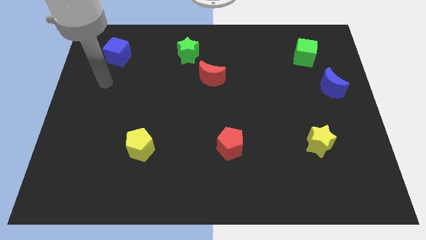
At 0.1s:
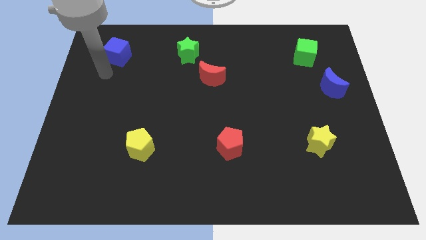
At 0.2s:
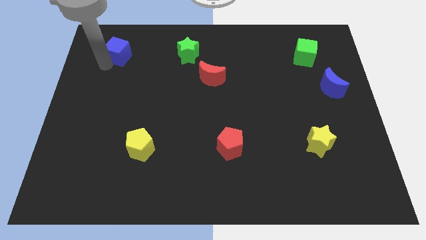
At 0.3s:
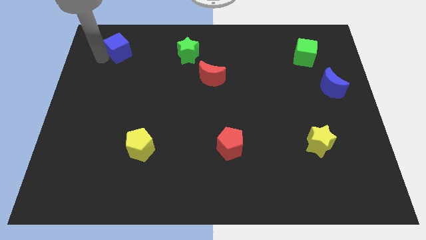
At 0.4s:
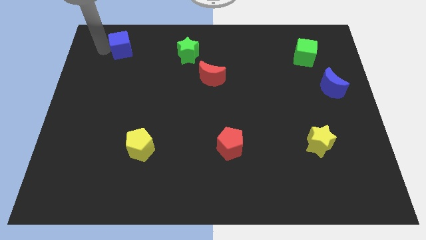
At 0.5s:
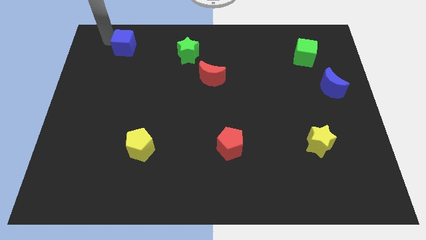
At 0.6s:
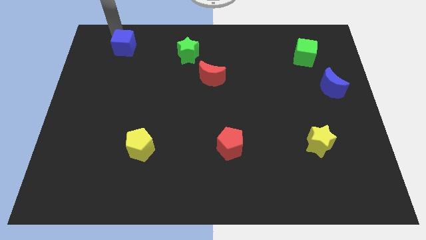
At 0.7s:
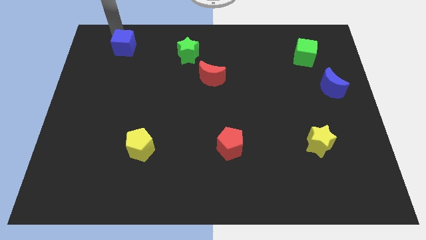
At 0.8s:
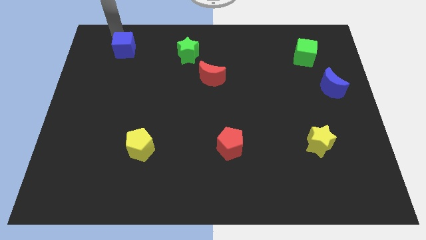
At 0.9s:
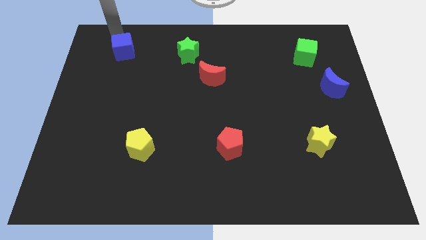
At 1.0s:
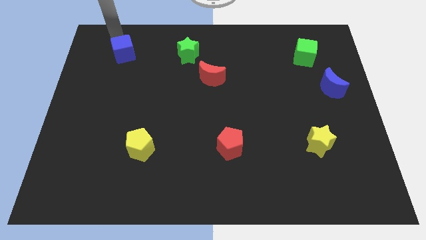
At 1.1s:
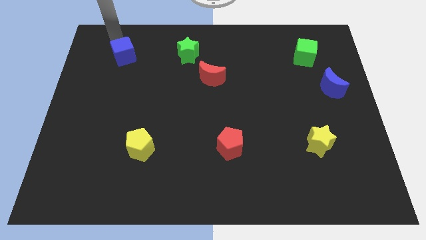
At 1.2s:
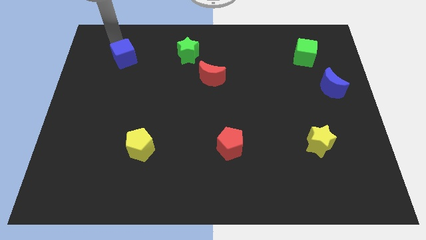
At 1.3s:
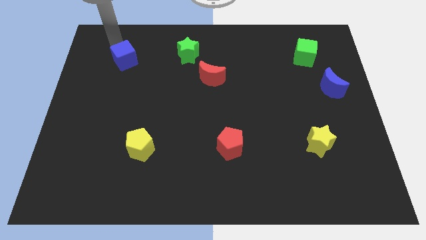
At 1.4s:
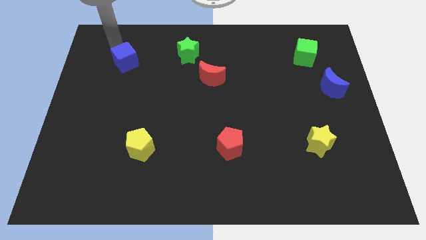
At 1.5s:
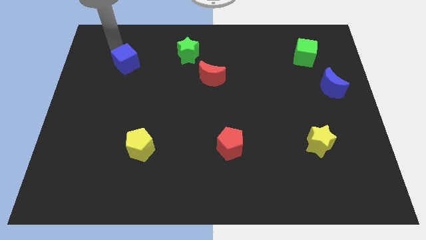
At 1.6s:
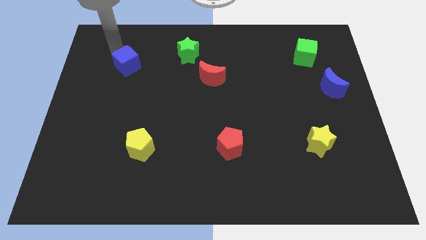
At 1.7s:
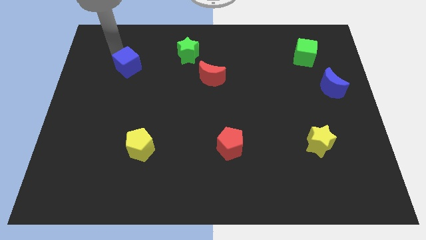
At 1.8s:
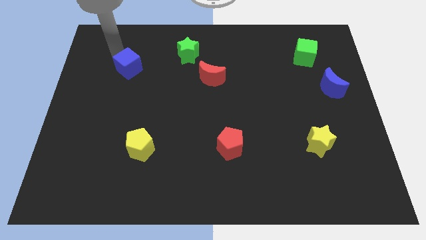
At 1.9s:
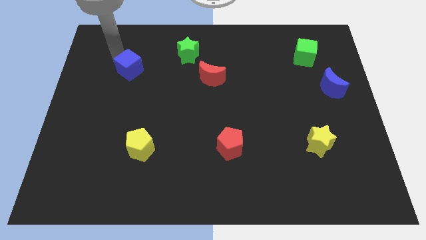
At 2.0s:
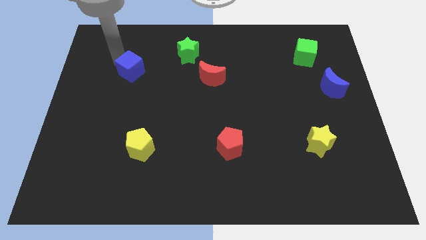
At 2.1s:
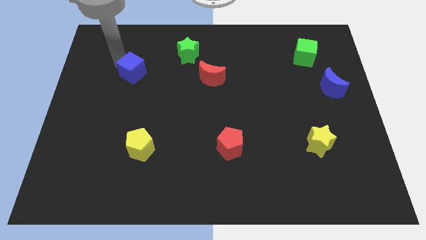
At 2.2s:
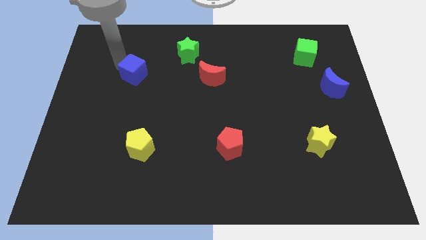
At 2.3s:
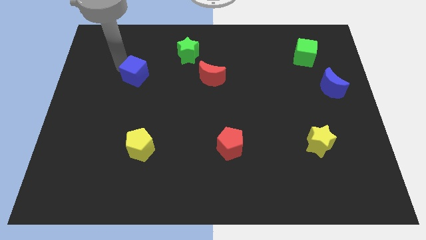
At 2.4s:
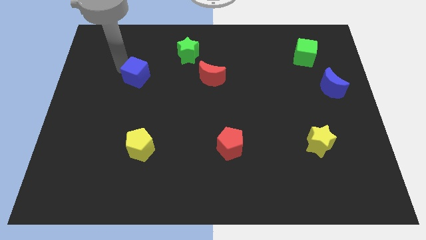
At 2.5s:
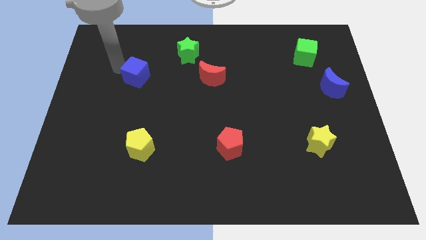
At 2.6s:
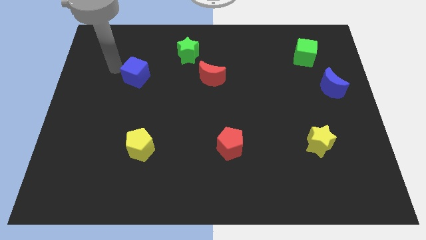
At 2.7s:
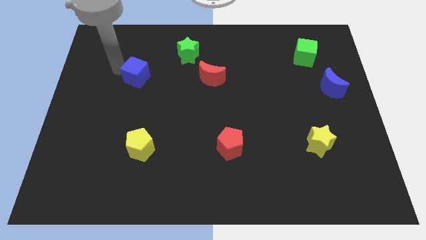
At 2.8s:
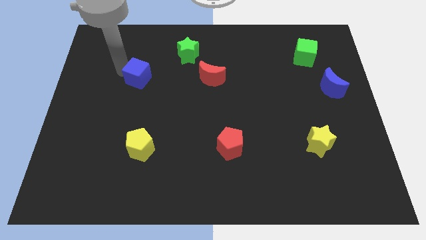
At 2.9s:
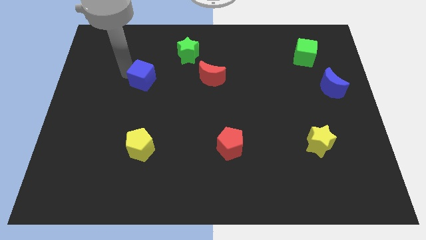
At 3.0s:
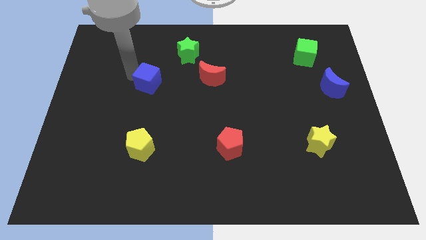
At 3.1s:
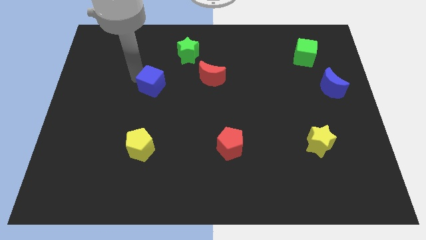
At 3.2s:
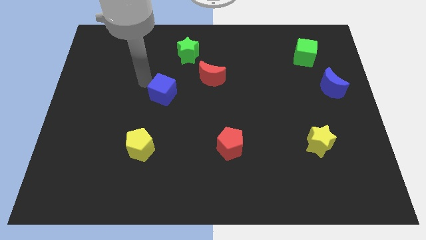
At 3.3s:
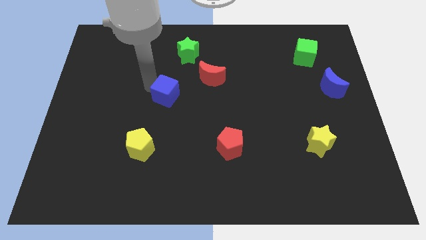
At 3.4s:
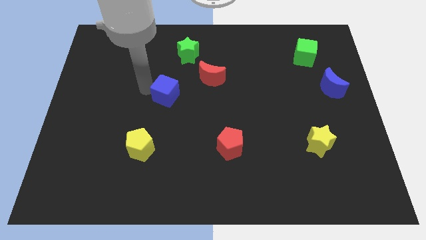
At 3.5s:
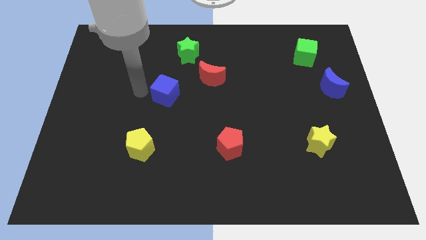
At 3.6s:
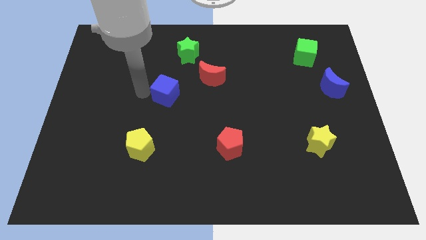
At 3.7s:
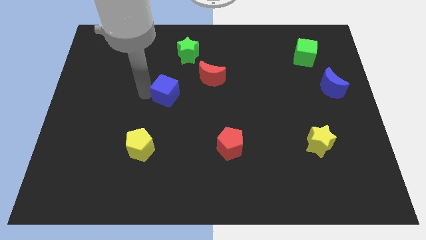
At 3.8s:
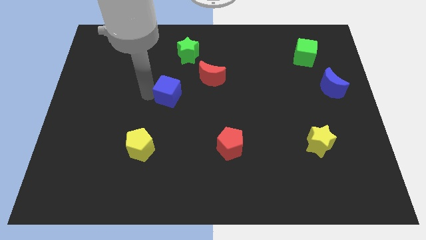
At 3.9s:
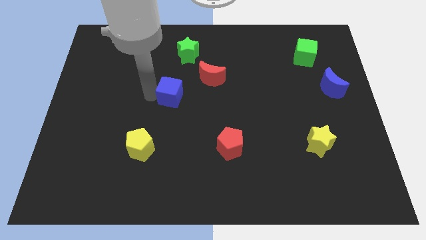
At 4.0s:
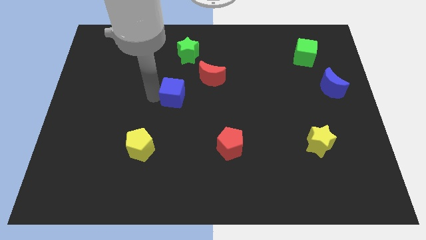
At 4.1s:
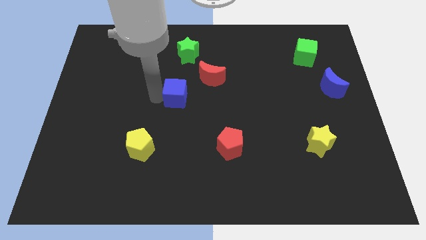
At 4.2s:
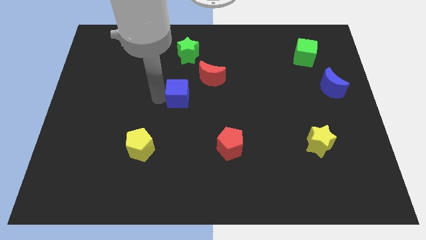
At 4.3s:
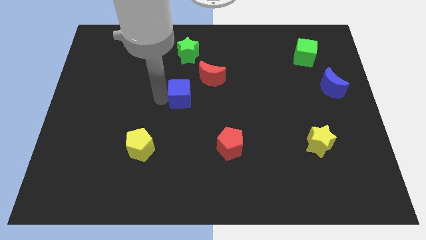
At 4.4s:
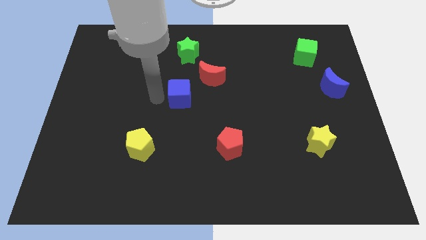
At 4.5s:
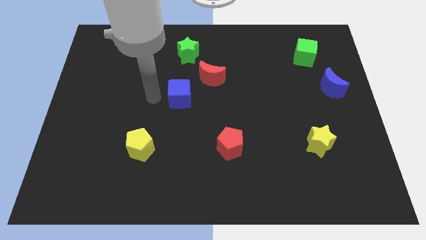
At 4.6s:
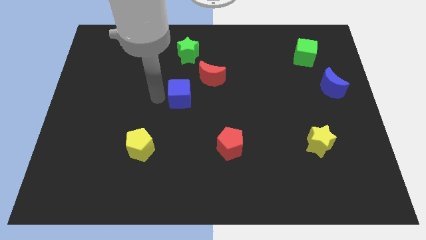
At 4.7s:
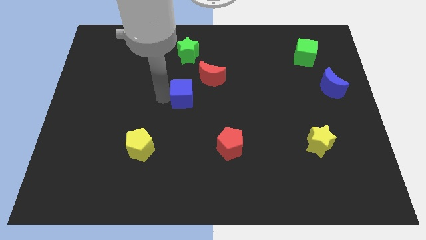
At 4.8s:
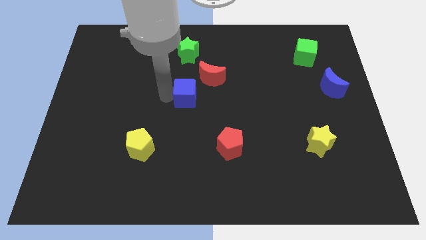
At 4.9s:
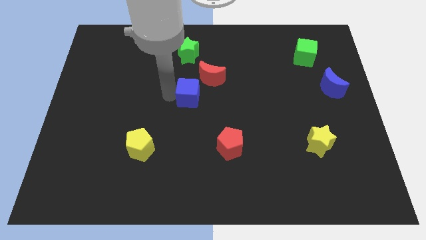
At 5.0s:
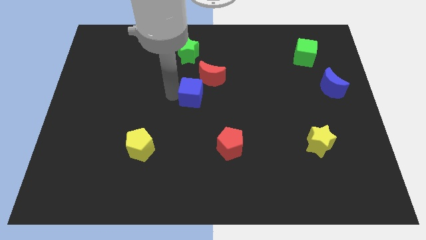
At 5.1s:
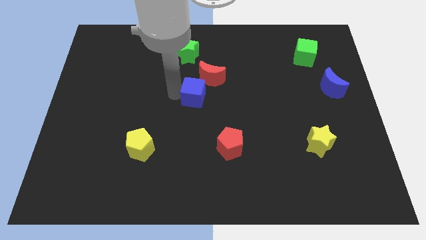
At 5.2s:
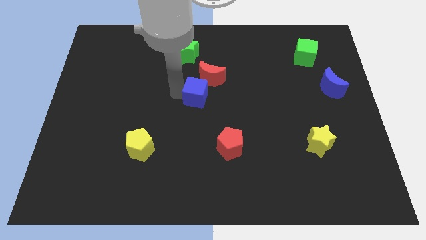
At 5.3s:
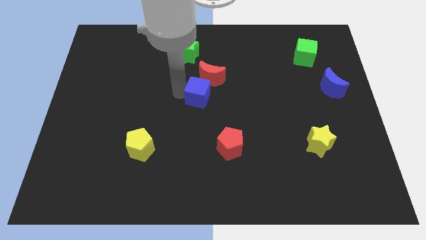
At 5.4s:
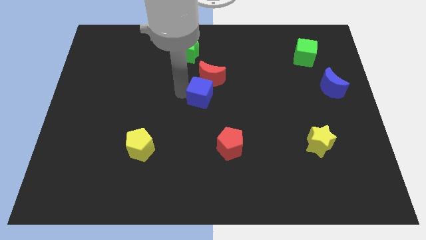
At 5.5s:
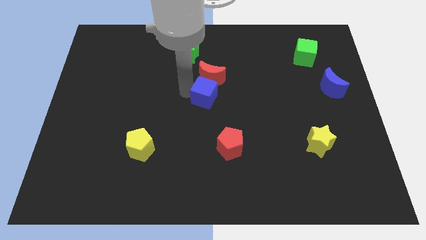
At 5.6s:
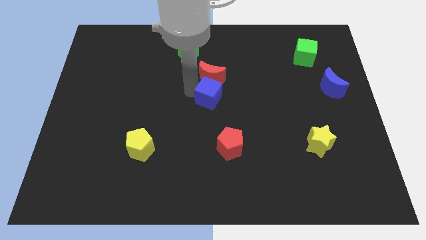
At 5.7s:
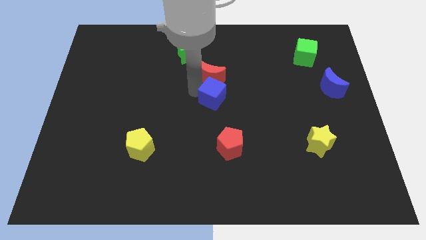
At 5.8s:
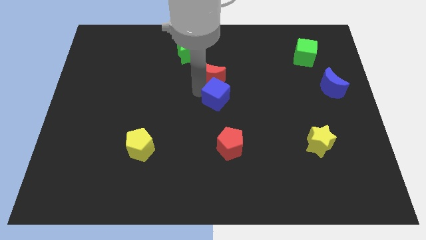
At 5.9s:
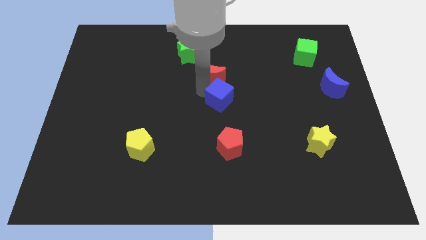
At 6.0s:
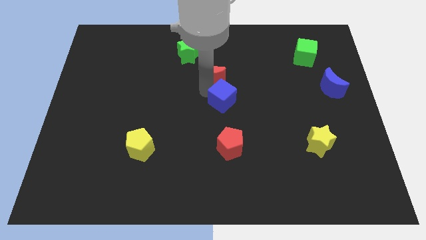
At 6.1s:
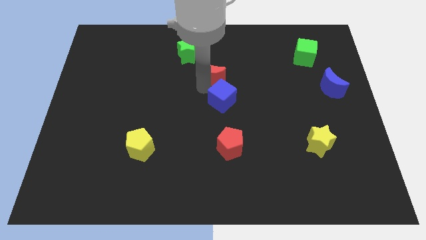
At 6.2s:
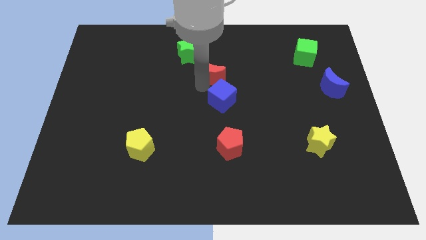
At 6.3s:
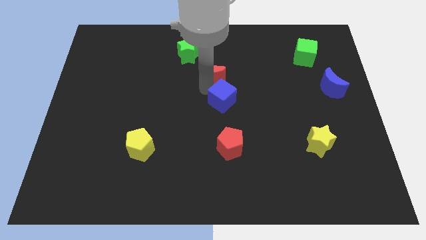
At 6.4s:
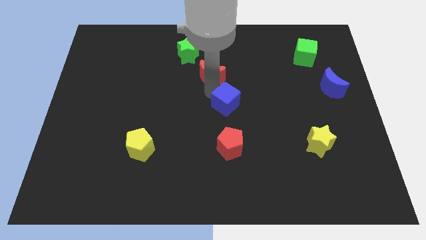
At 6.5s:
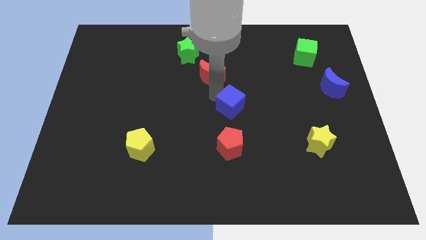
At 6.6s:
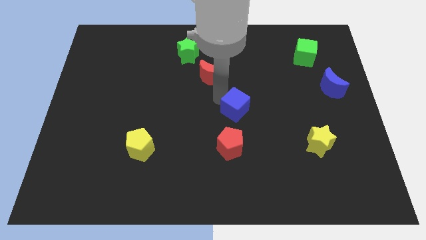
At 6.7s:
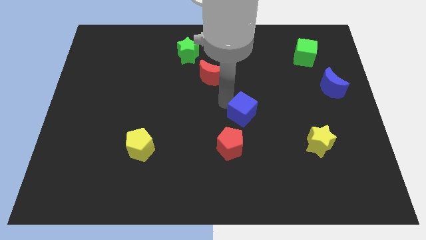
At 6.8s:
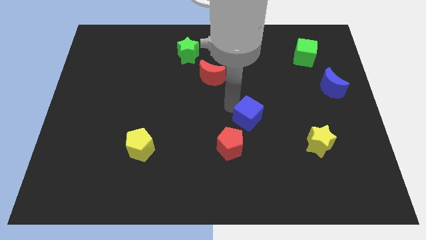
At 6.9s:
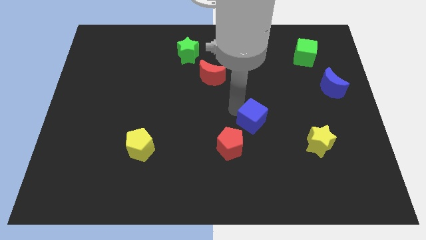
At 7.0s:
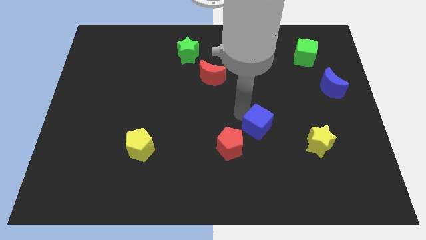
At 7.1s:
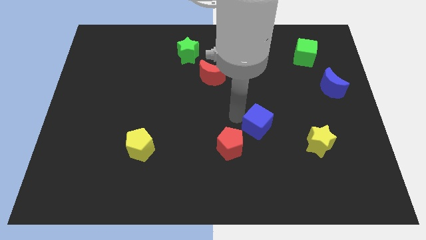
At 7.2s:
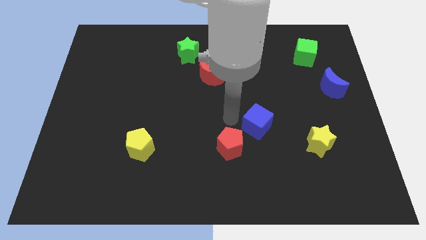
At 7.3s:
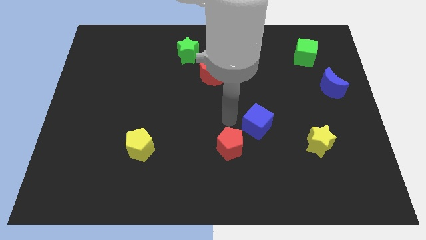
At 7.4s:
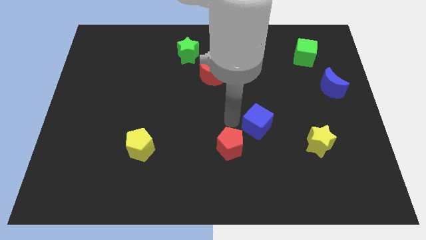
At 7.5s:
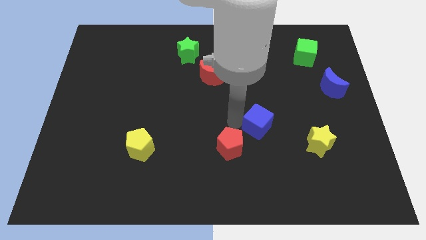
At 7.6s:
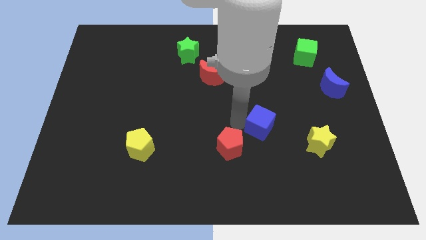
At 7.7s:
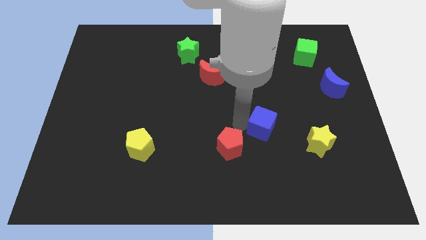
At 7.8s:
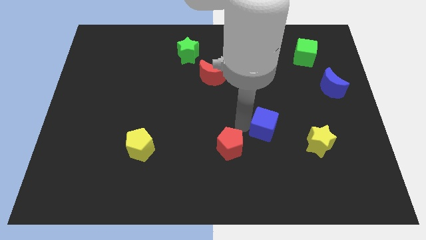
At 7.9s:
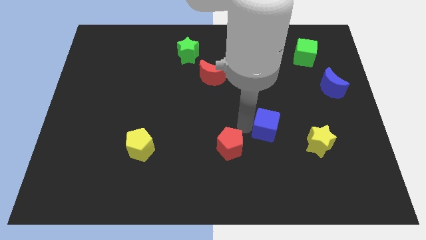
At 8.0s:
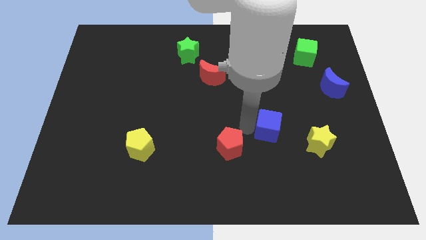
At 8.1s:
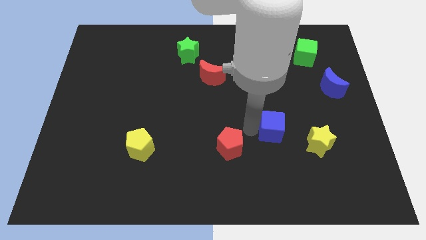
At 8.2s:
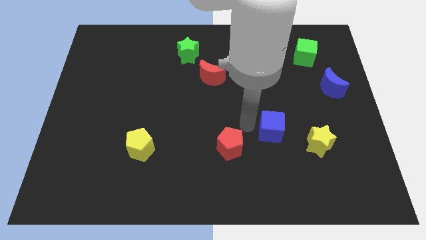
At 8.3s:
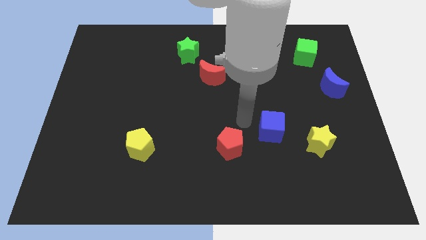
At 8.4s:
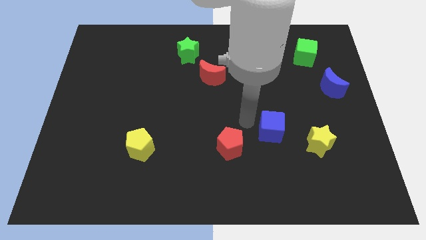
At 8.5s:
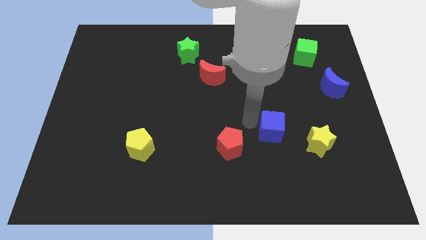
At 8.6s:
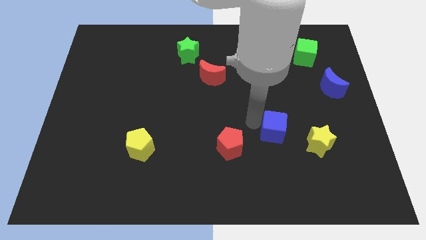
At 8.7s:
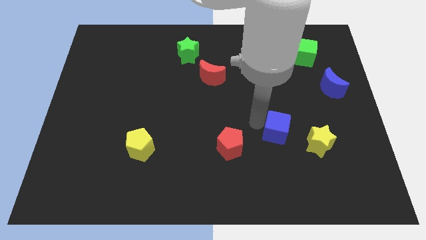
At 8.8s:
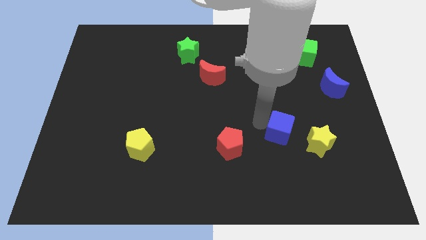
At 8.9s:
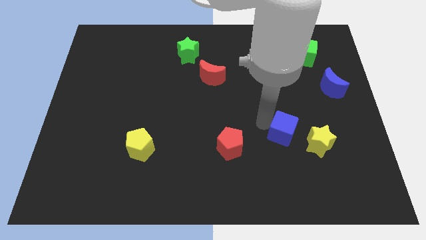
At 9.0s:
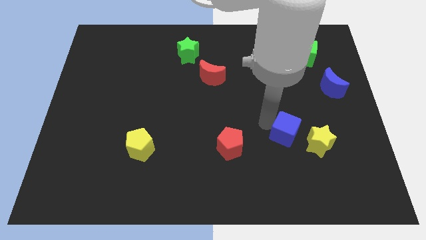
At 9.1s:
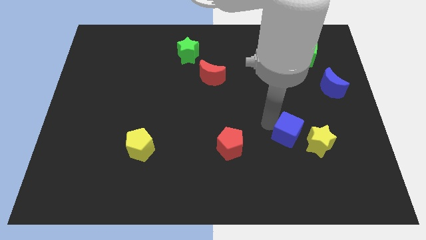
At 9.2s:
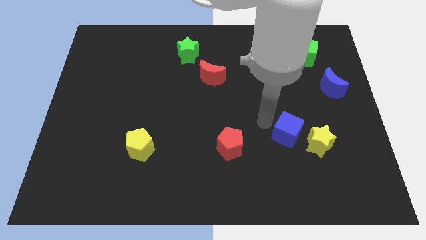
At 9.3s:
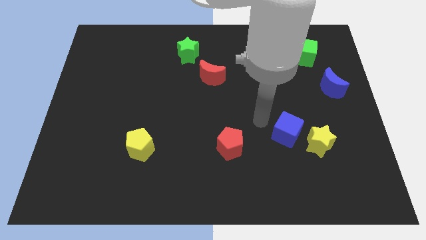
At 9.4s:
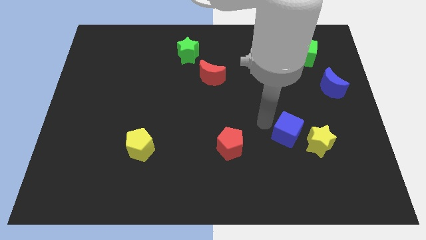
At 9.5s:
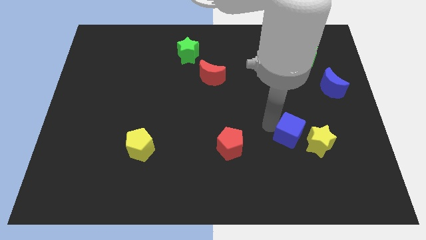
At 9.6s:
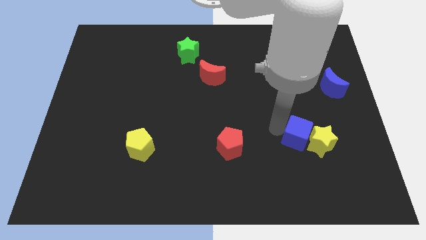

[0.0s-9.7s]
move the blue cube to the yellow star
